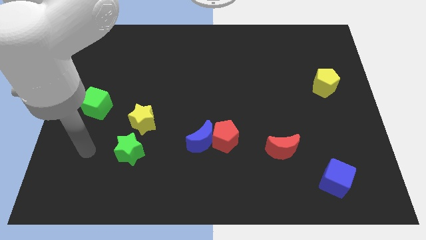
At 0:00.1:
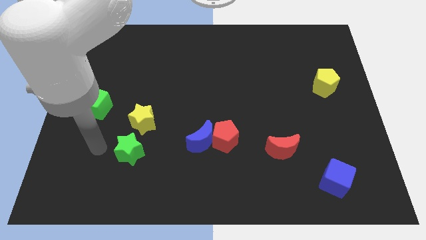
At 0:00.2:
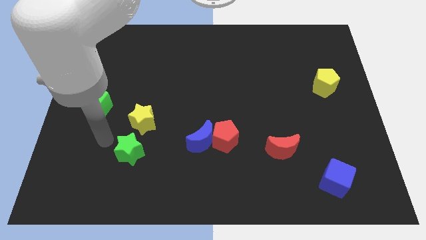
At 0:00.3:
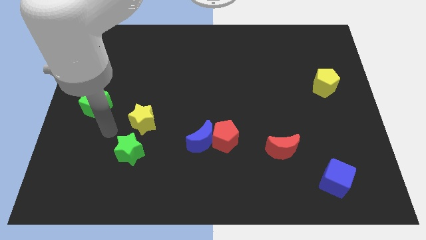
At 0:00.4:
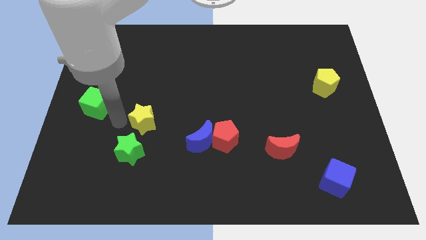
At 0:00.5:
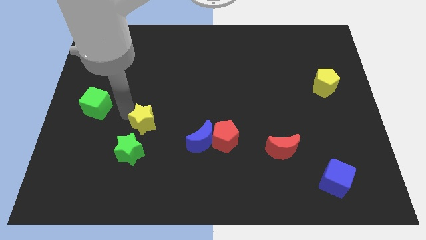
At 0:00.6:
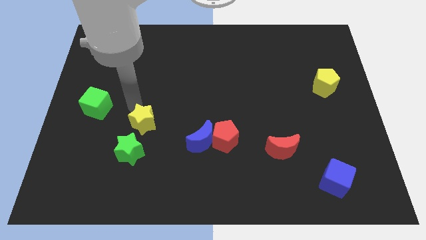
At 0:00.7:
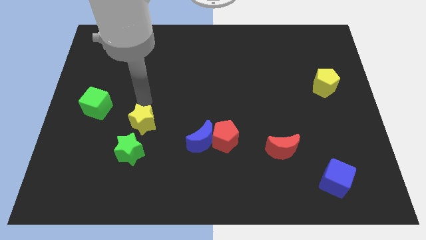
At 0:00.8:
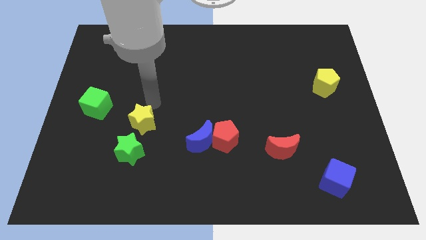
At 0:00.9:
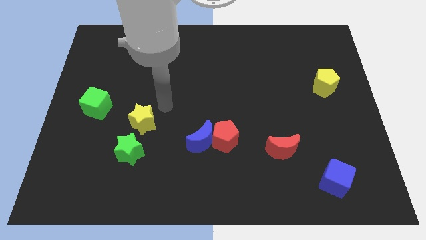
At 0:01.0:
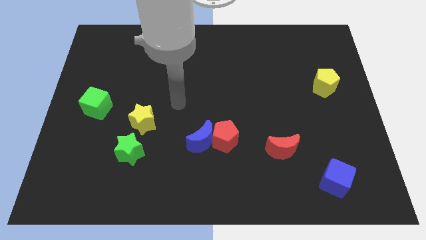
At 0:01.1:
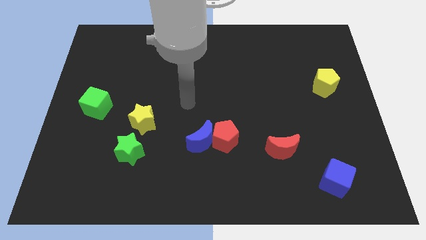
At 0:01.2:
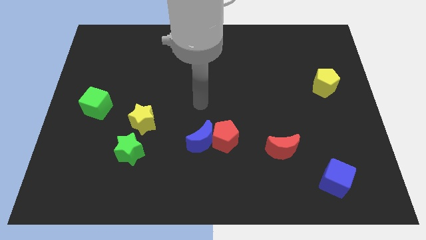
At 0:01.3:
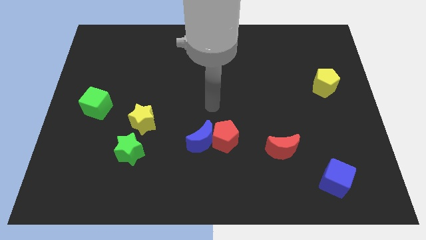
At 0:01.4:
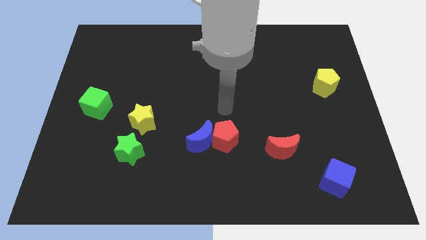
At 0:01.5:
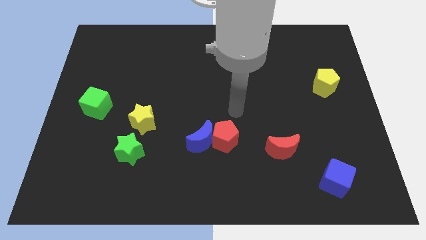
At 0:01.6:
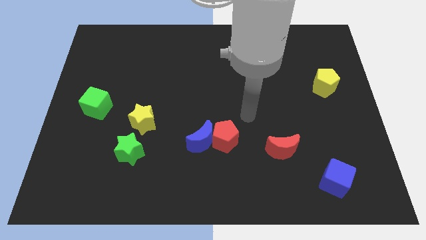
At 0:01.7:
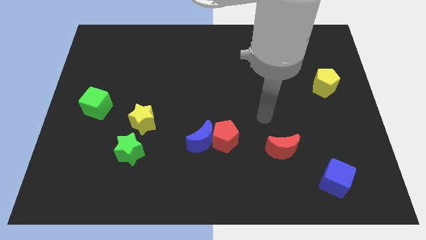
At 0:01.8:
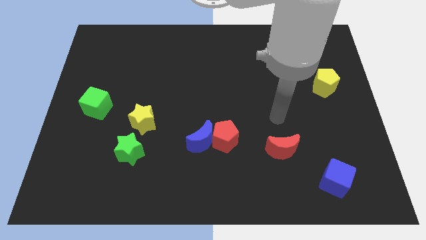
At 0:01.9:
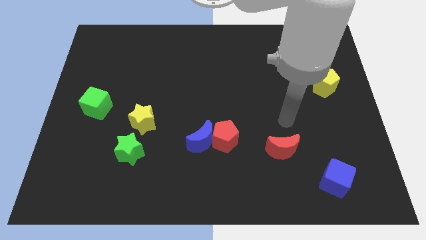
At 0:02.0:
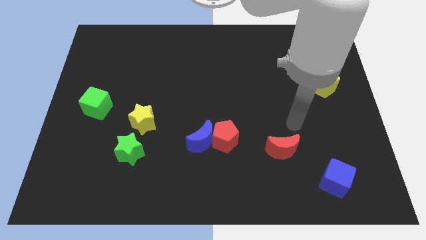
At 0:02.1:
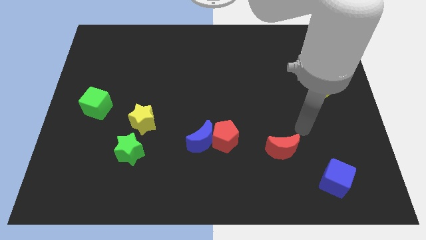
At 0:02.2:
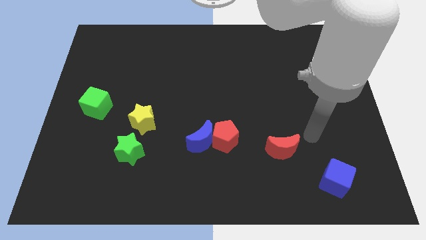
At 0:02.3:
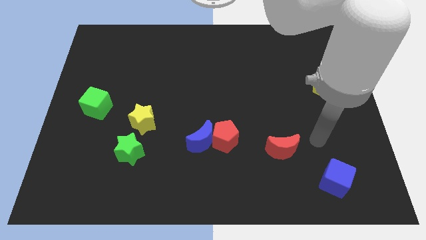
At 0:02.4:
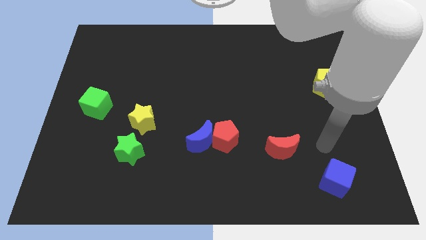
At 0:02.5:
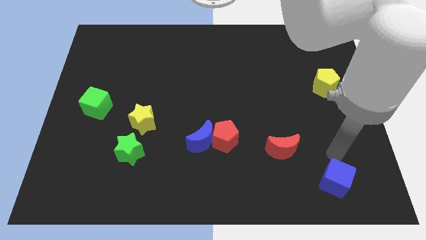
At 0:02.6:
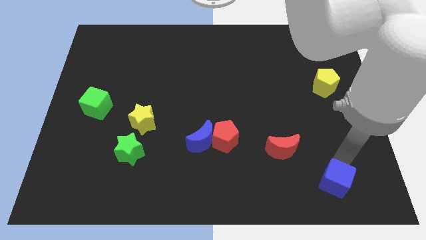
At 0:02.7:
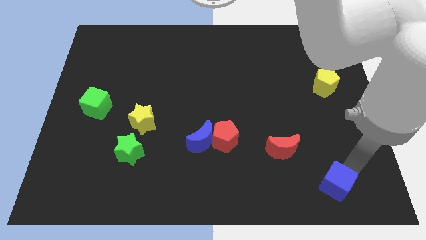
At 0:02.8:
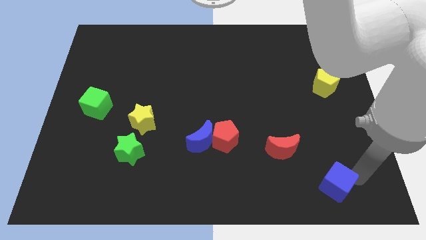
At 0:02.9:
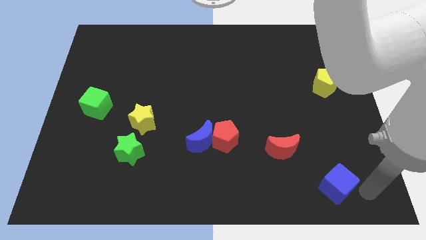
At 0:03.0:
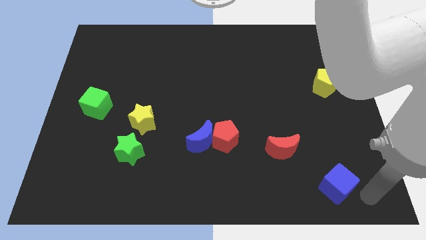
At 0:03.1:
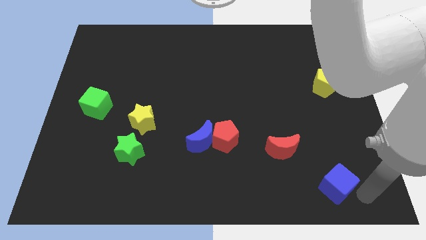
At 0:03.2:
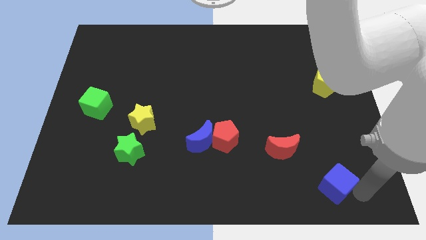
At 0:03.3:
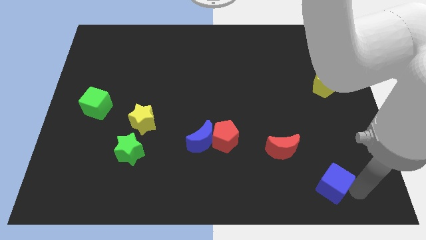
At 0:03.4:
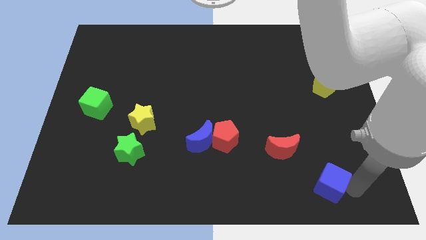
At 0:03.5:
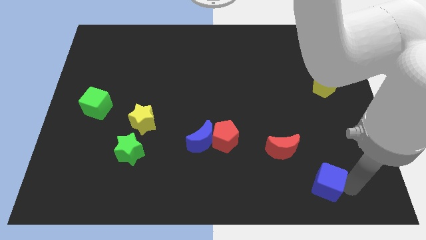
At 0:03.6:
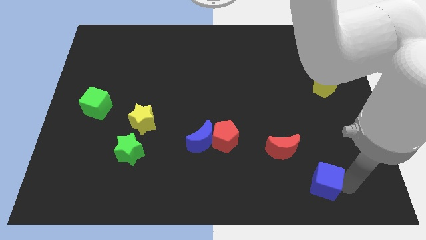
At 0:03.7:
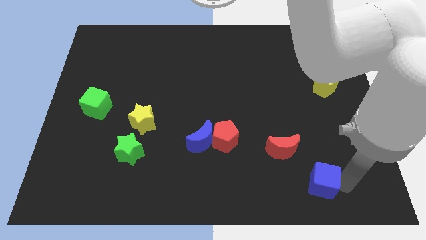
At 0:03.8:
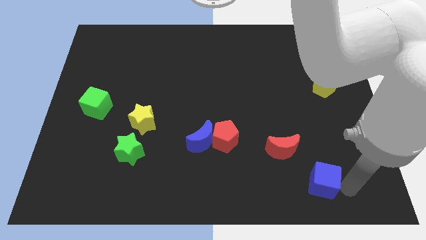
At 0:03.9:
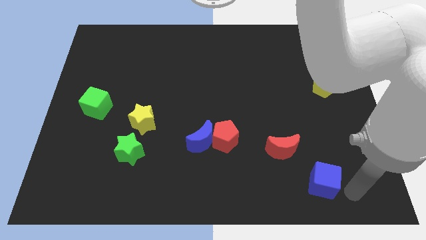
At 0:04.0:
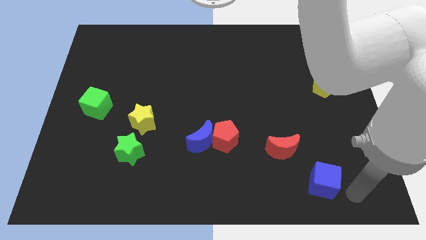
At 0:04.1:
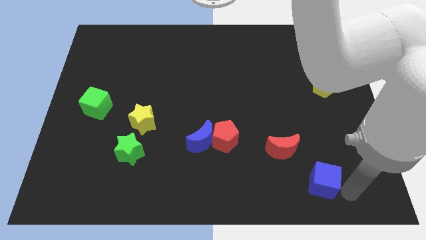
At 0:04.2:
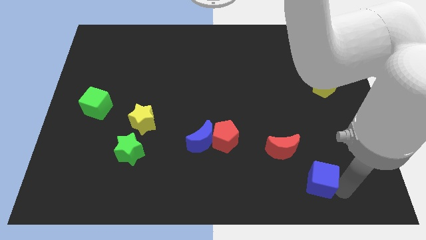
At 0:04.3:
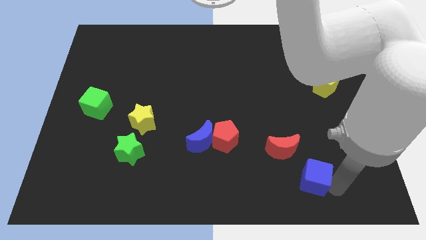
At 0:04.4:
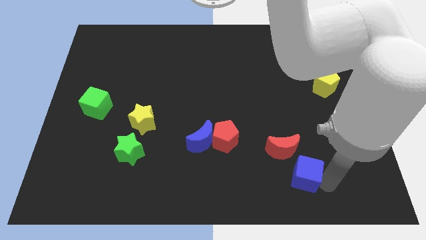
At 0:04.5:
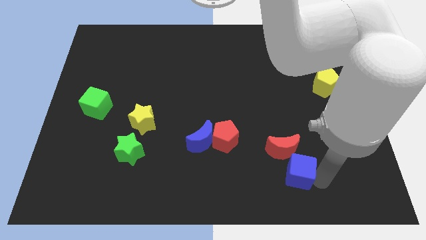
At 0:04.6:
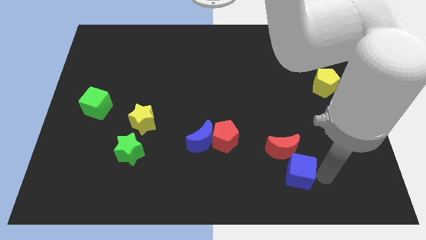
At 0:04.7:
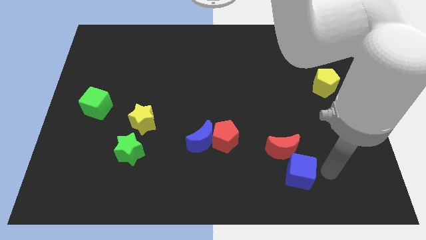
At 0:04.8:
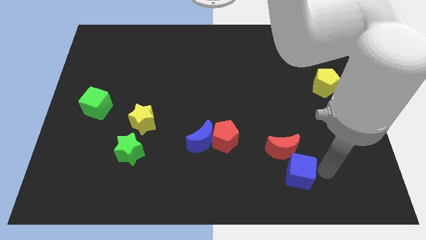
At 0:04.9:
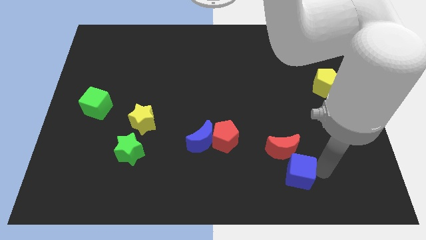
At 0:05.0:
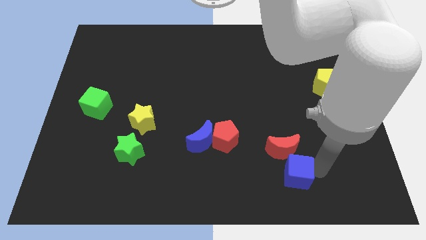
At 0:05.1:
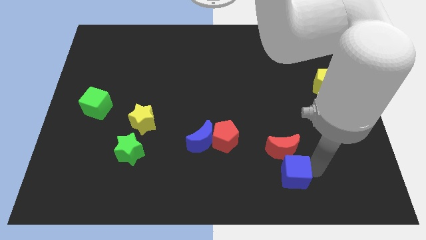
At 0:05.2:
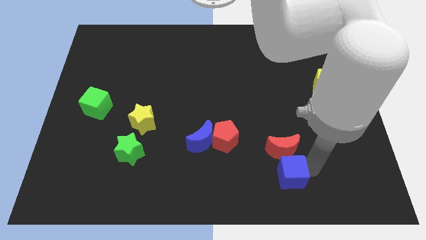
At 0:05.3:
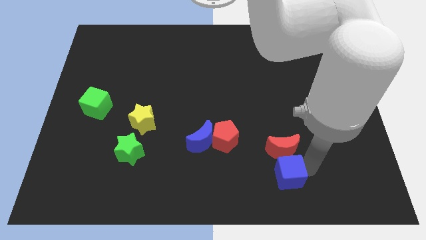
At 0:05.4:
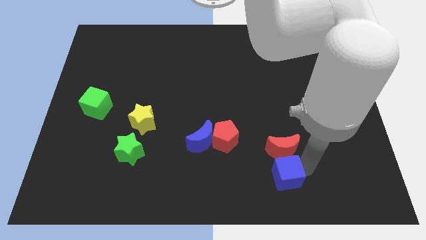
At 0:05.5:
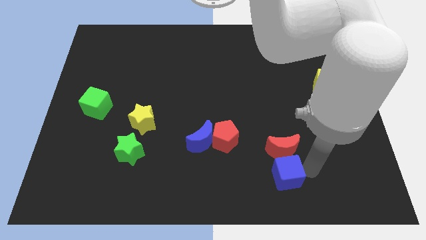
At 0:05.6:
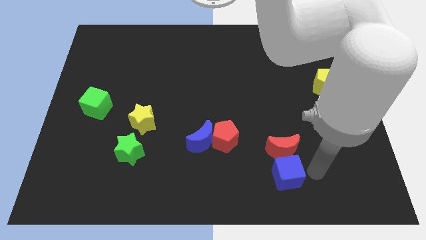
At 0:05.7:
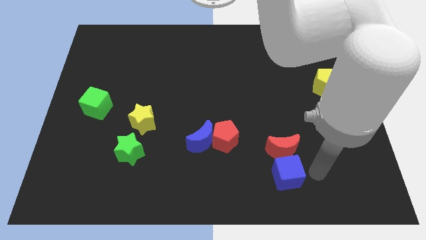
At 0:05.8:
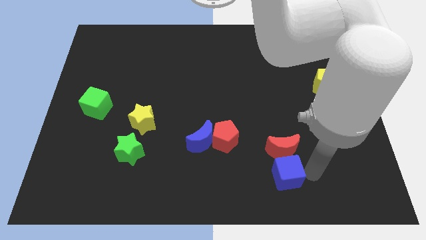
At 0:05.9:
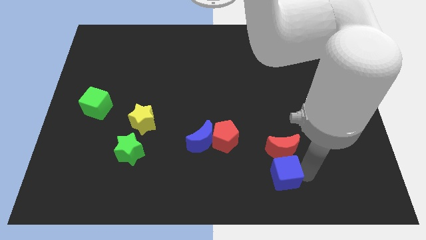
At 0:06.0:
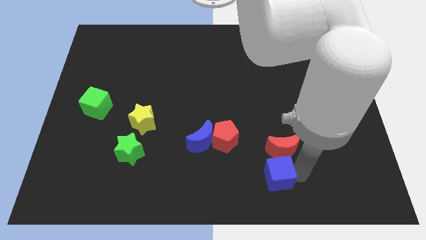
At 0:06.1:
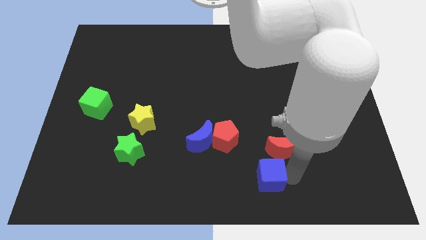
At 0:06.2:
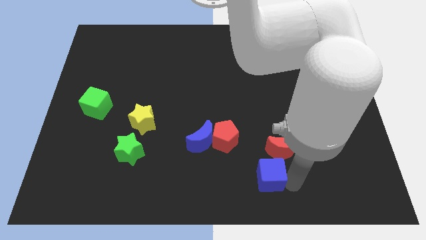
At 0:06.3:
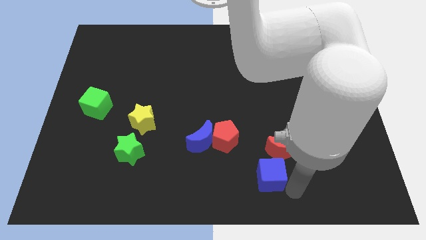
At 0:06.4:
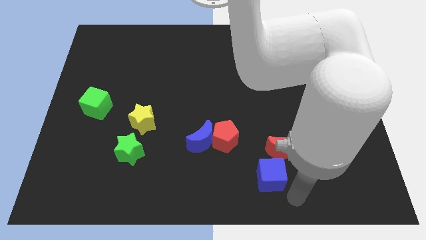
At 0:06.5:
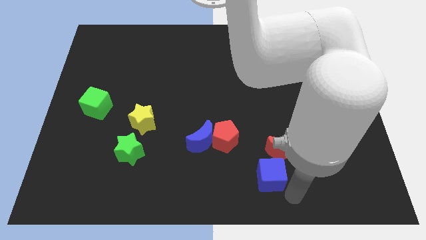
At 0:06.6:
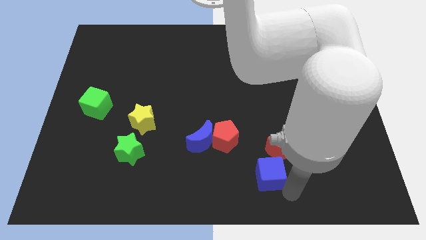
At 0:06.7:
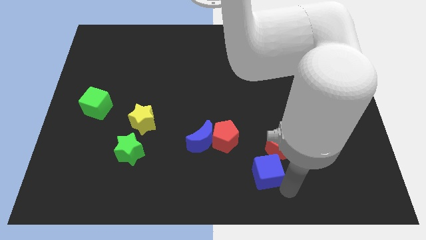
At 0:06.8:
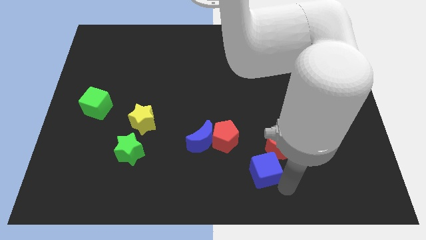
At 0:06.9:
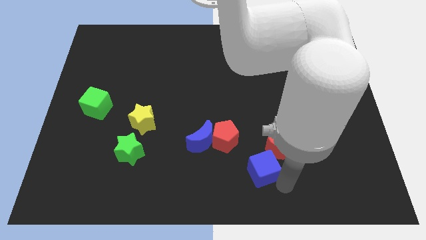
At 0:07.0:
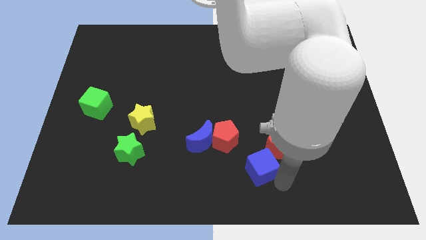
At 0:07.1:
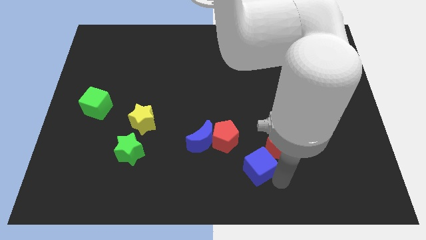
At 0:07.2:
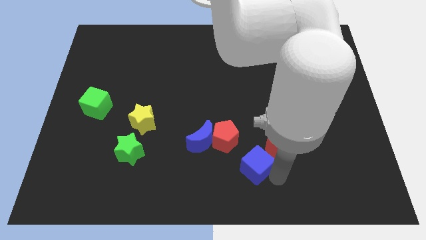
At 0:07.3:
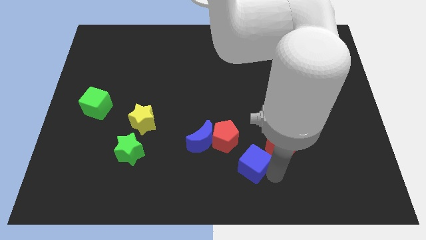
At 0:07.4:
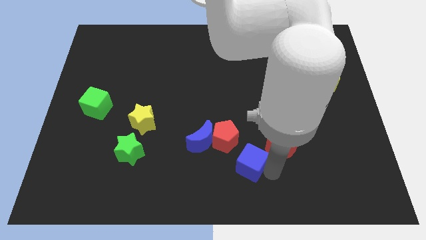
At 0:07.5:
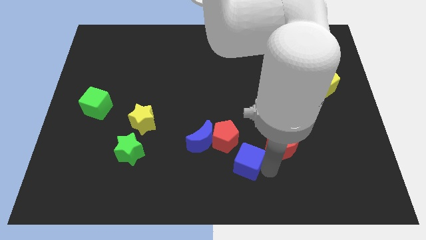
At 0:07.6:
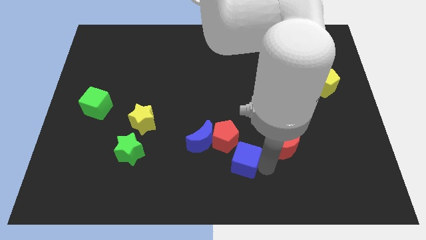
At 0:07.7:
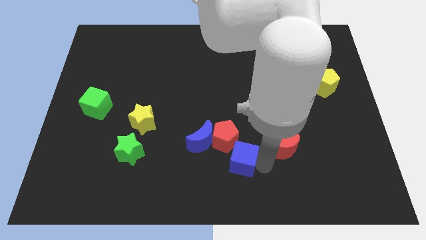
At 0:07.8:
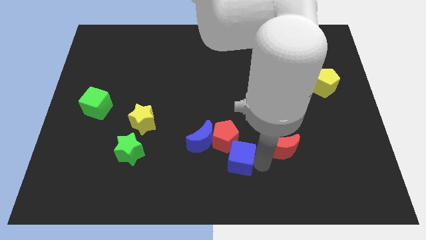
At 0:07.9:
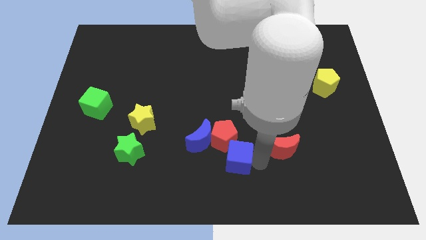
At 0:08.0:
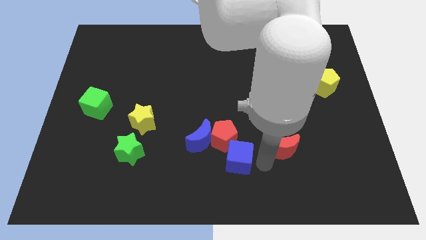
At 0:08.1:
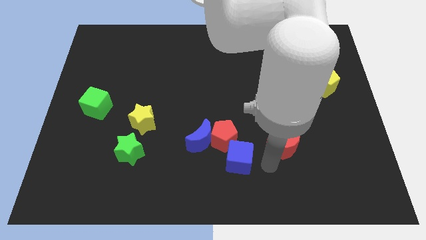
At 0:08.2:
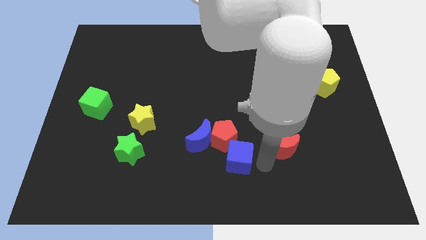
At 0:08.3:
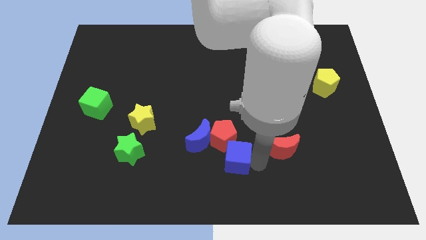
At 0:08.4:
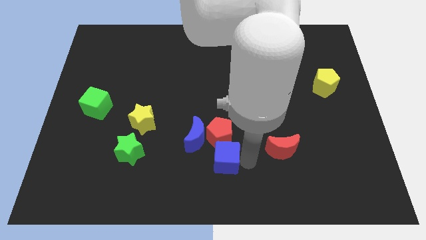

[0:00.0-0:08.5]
slide the blue cube to the bottom left of the red pentagon
